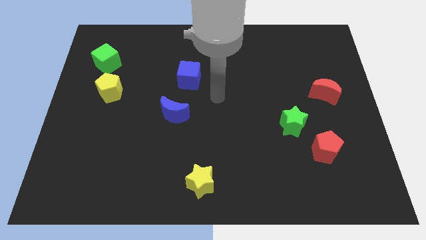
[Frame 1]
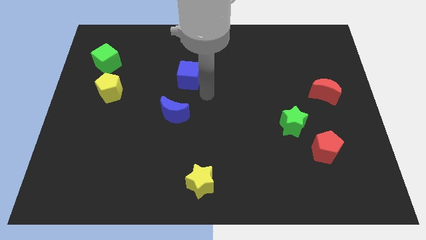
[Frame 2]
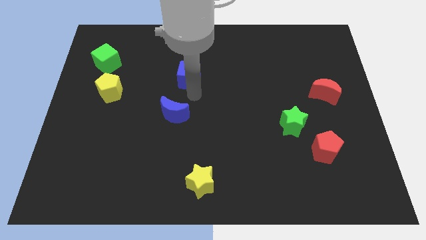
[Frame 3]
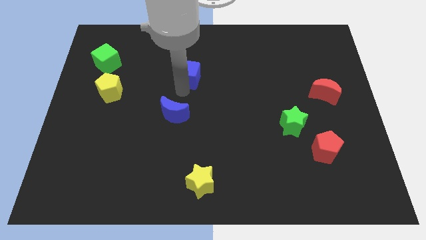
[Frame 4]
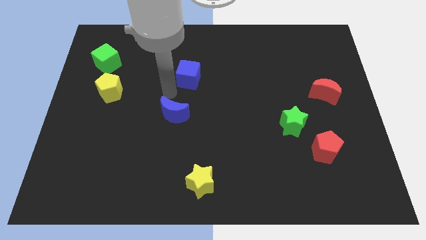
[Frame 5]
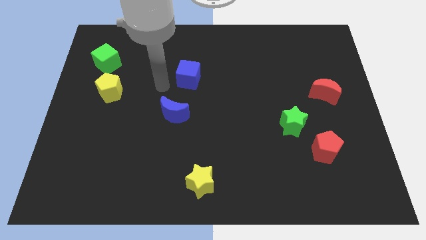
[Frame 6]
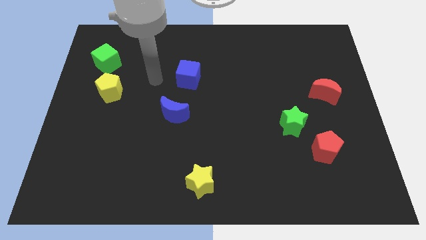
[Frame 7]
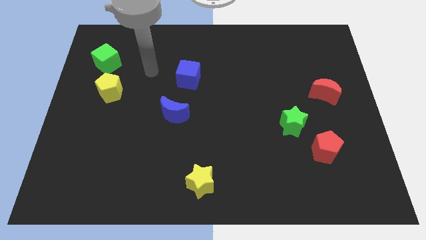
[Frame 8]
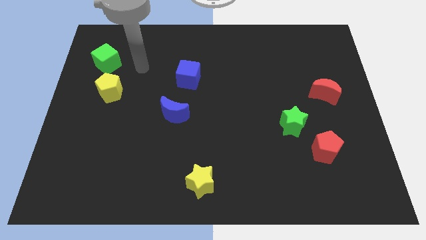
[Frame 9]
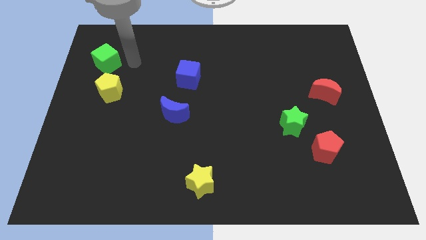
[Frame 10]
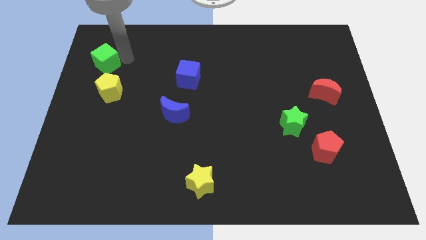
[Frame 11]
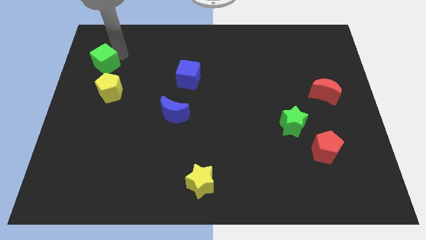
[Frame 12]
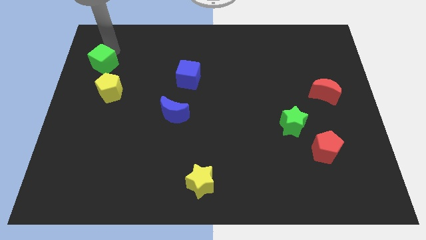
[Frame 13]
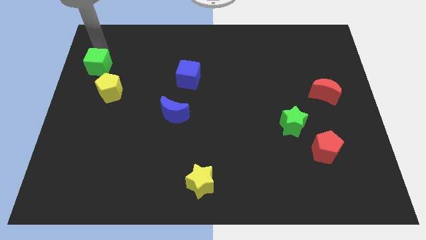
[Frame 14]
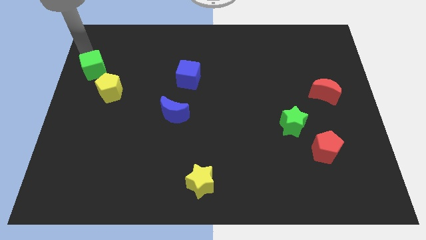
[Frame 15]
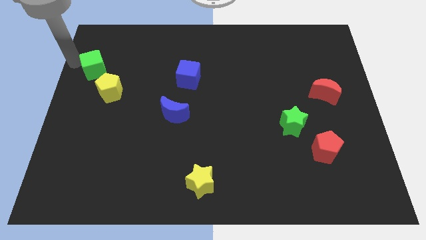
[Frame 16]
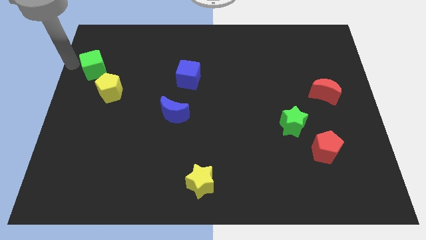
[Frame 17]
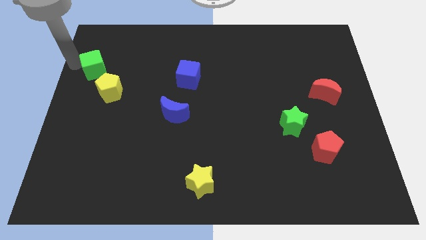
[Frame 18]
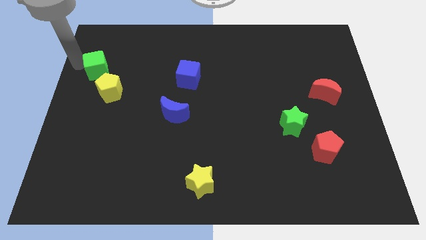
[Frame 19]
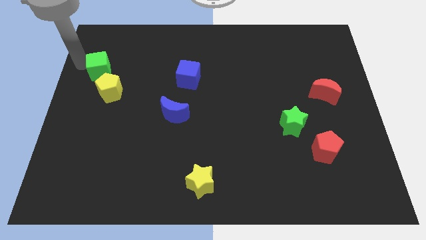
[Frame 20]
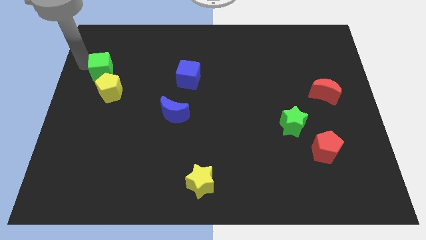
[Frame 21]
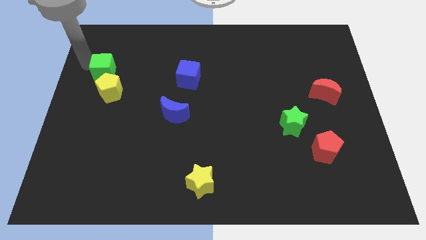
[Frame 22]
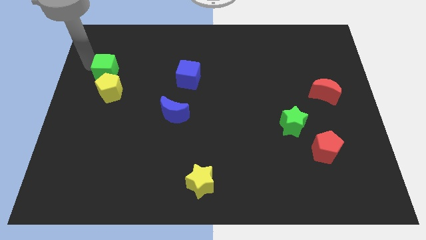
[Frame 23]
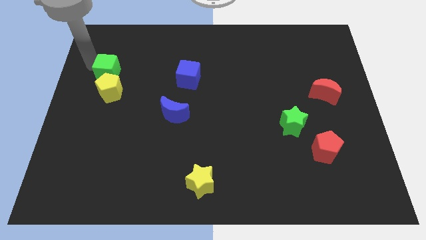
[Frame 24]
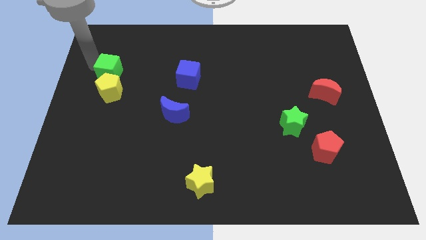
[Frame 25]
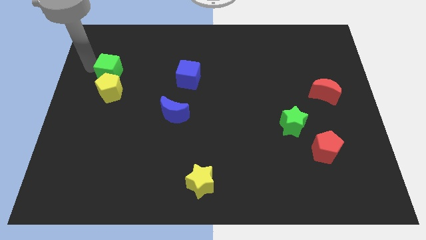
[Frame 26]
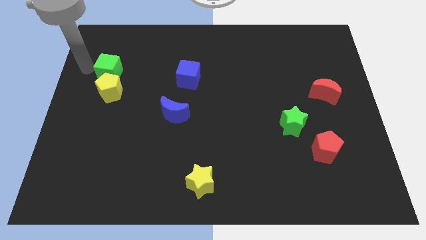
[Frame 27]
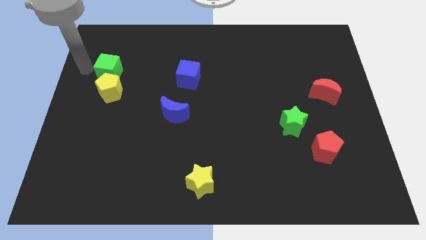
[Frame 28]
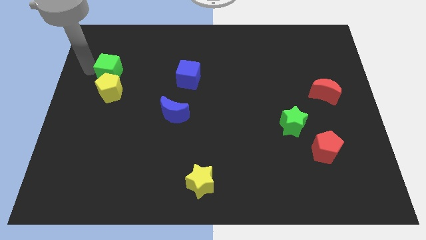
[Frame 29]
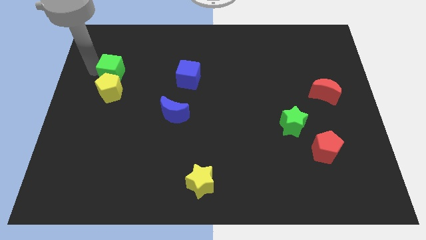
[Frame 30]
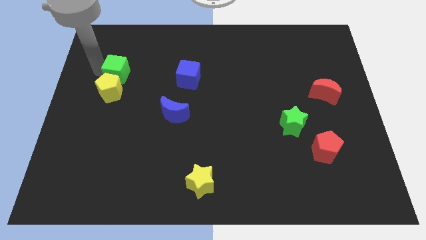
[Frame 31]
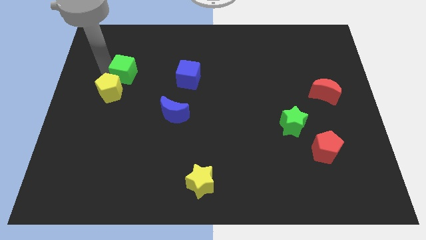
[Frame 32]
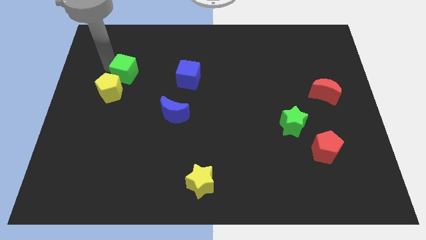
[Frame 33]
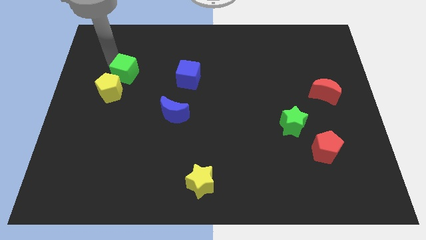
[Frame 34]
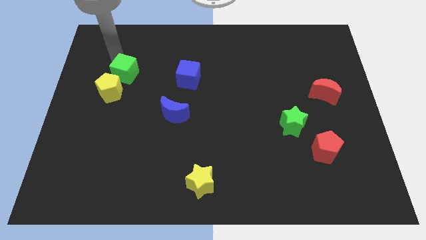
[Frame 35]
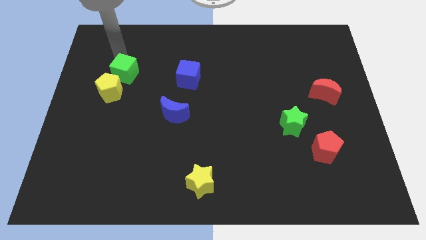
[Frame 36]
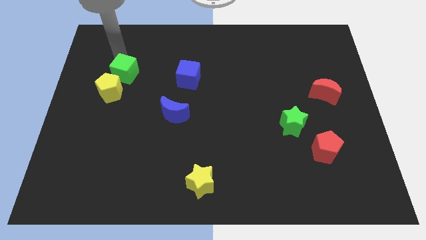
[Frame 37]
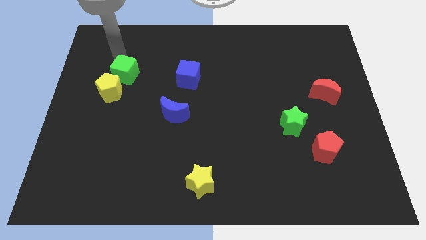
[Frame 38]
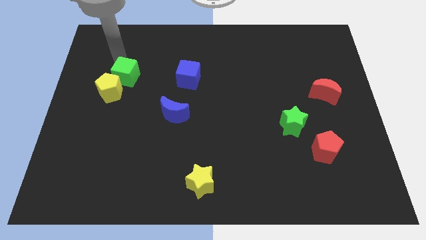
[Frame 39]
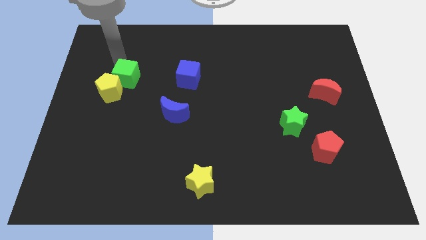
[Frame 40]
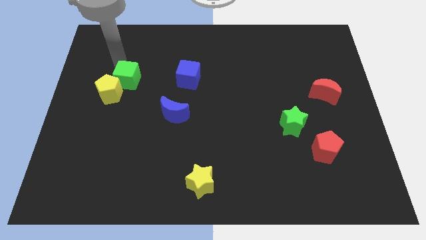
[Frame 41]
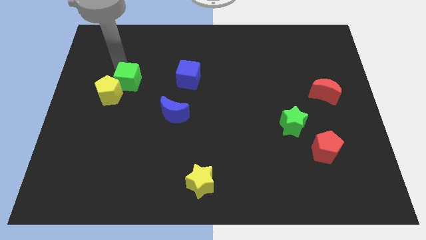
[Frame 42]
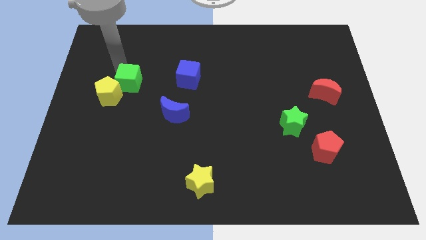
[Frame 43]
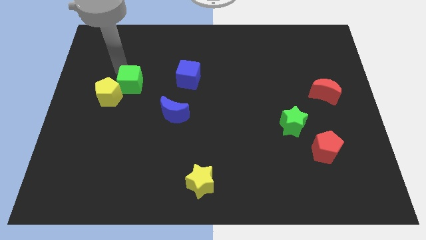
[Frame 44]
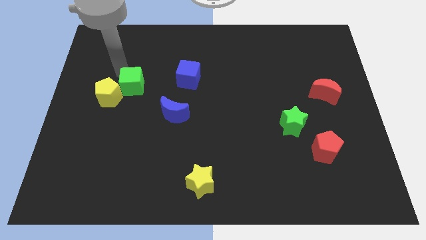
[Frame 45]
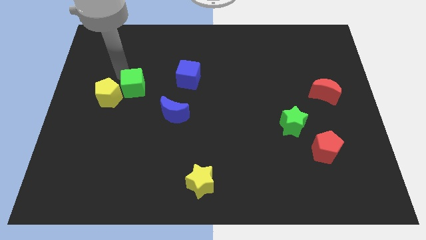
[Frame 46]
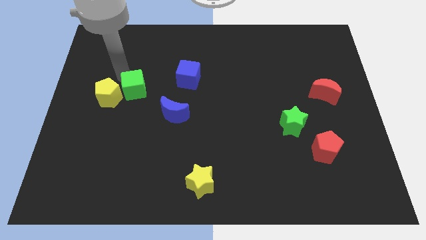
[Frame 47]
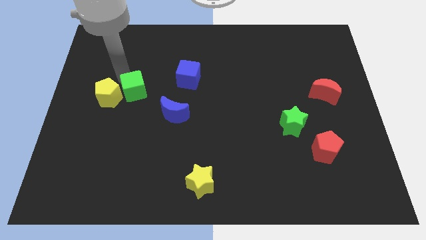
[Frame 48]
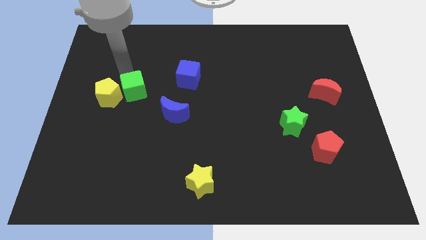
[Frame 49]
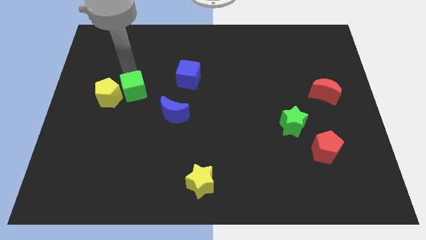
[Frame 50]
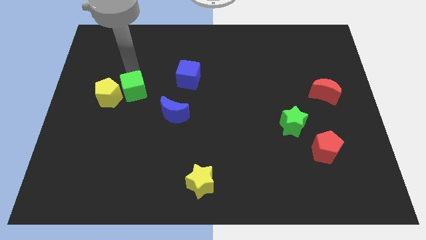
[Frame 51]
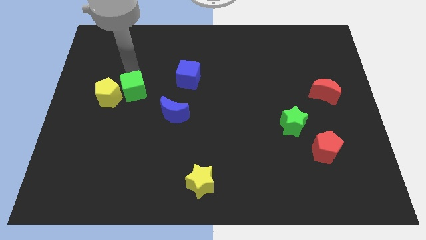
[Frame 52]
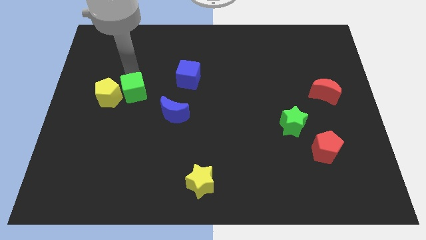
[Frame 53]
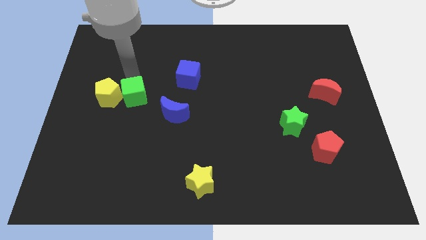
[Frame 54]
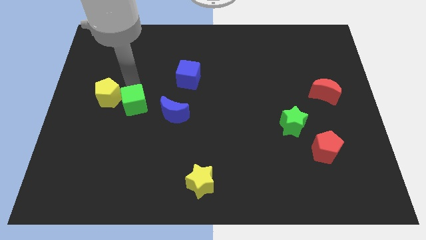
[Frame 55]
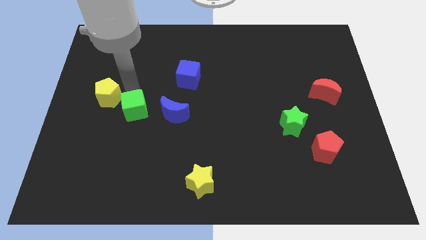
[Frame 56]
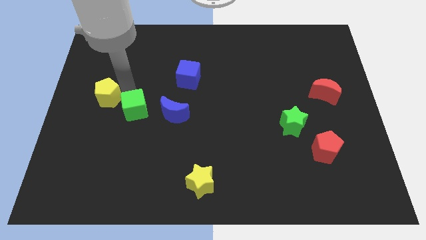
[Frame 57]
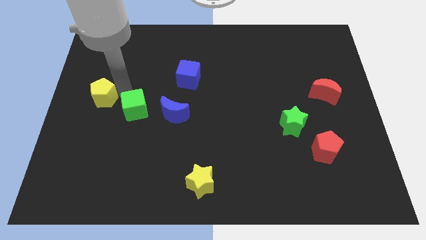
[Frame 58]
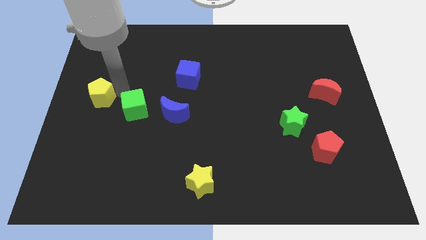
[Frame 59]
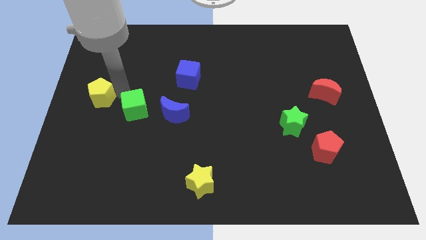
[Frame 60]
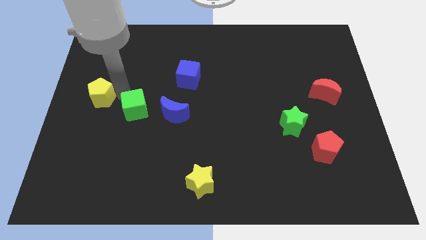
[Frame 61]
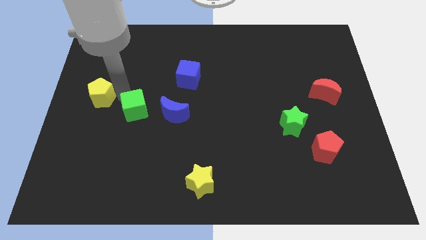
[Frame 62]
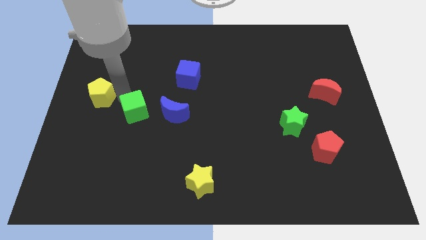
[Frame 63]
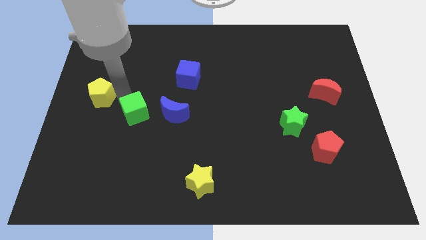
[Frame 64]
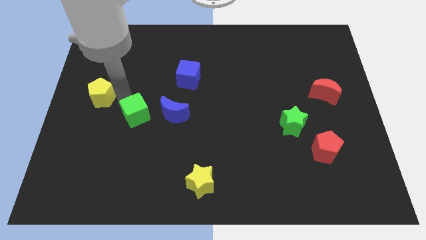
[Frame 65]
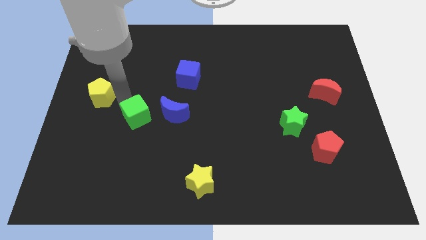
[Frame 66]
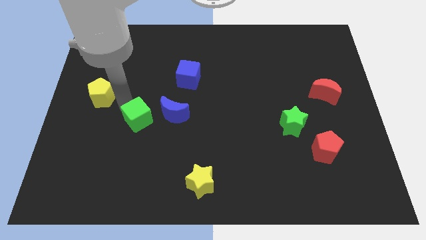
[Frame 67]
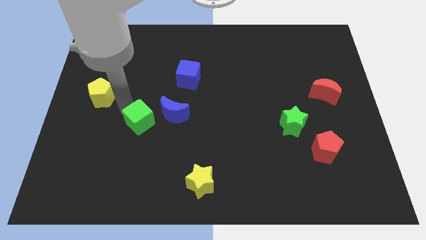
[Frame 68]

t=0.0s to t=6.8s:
move the green cube downwards and right

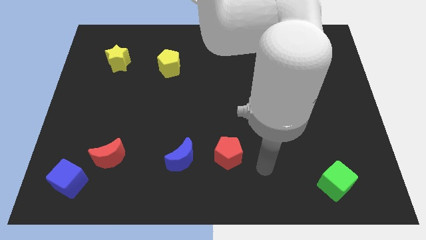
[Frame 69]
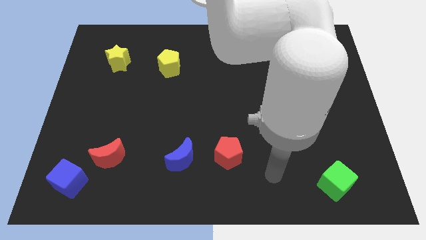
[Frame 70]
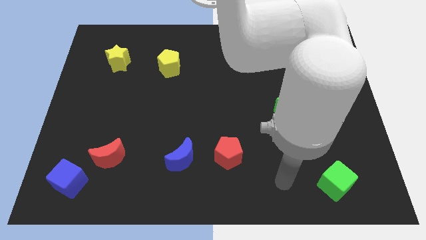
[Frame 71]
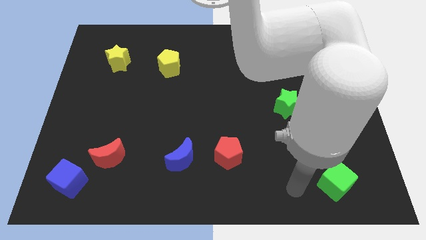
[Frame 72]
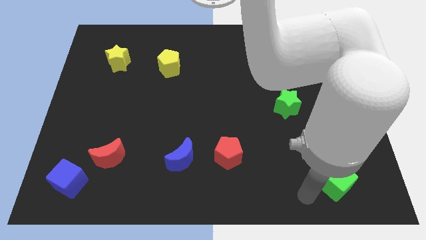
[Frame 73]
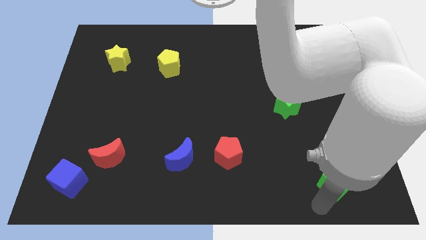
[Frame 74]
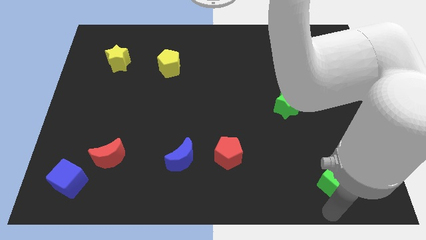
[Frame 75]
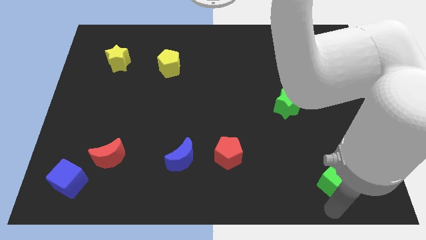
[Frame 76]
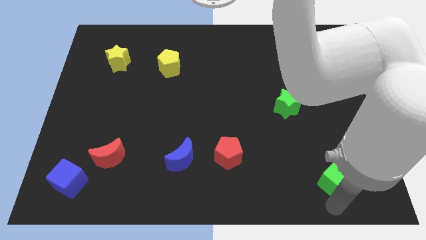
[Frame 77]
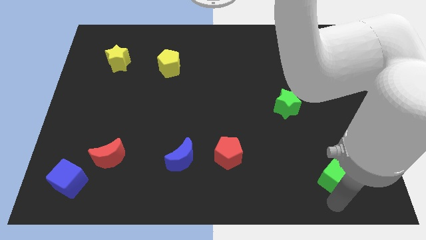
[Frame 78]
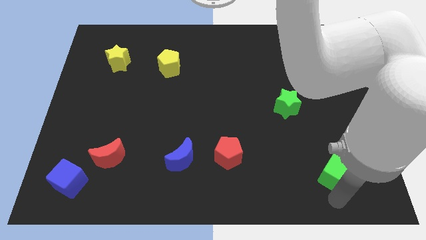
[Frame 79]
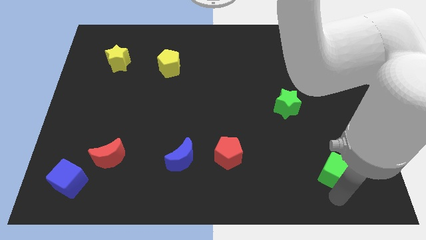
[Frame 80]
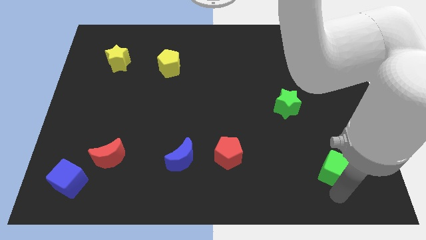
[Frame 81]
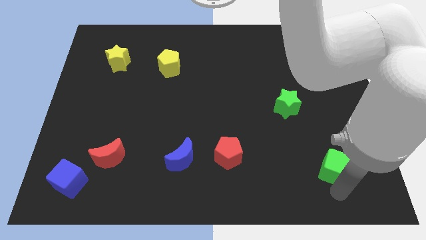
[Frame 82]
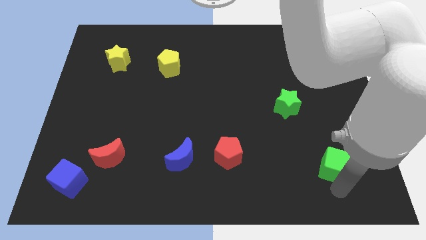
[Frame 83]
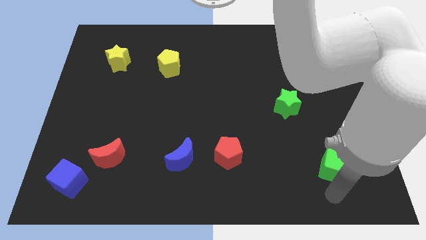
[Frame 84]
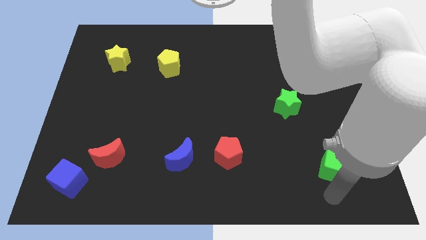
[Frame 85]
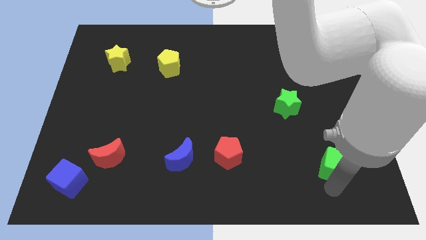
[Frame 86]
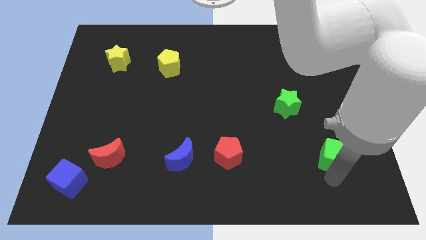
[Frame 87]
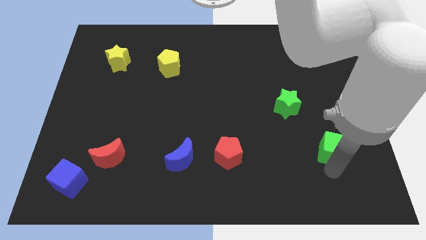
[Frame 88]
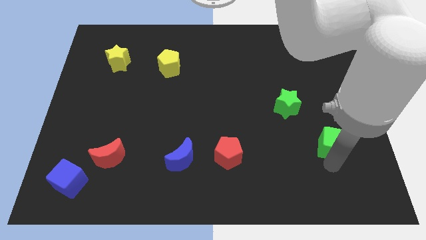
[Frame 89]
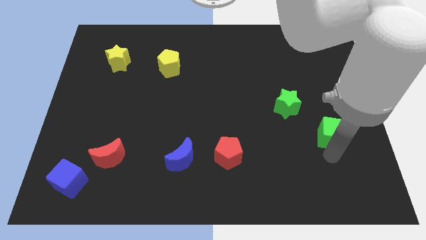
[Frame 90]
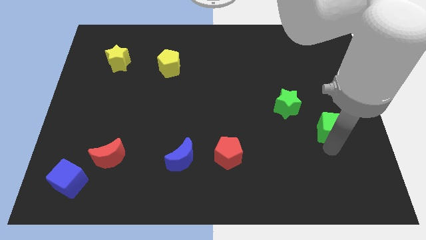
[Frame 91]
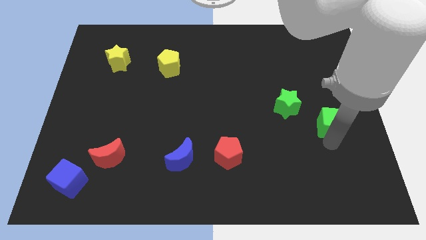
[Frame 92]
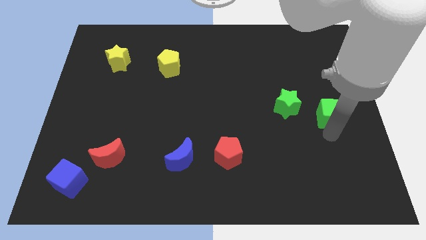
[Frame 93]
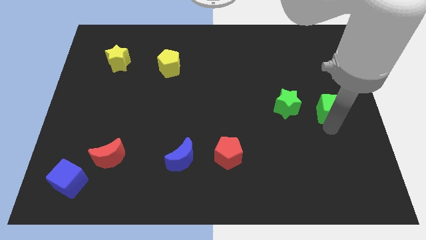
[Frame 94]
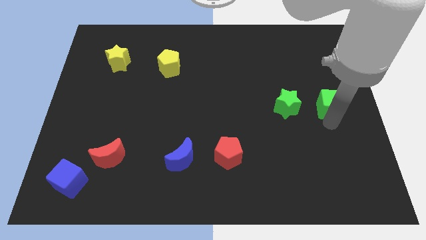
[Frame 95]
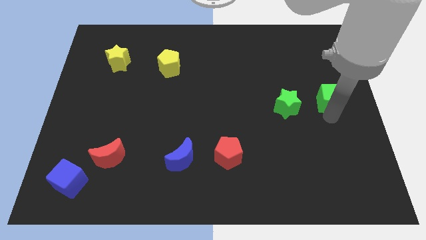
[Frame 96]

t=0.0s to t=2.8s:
move the green cube upwards
